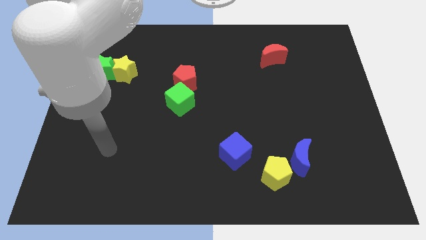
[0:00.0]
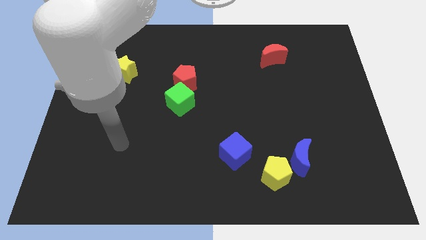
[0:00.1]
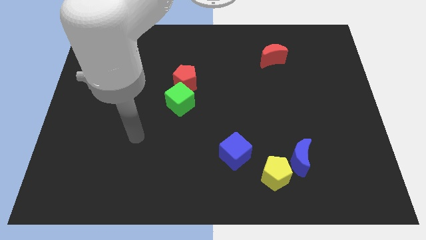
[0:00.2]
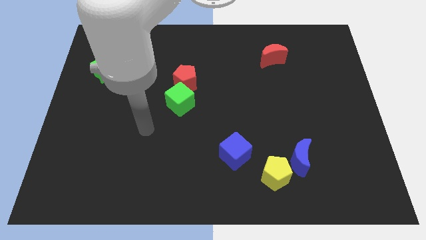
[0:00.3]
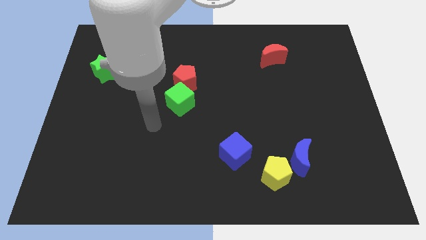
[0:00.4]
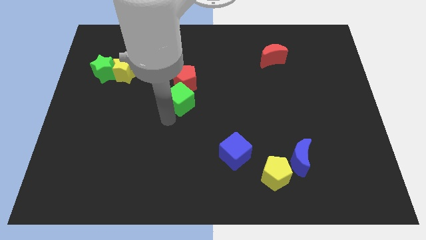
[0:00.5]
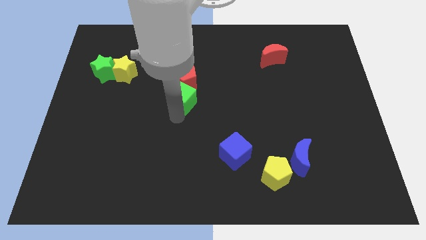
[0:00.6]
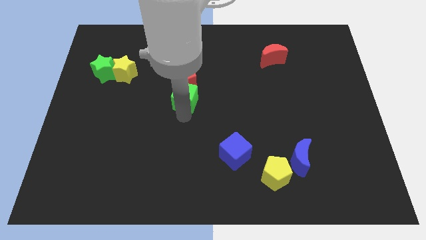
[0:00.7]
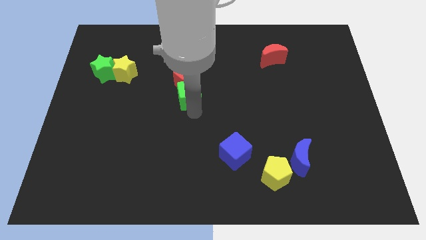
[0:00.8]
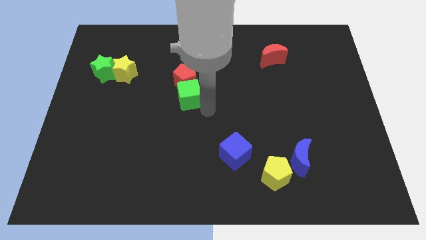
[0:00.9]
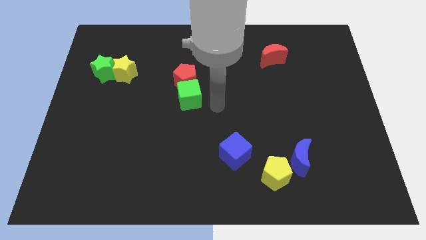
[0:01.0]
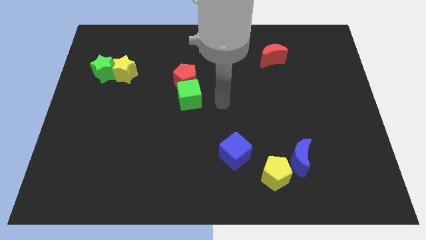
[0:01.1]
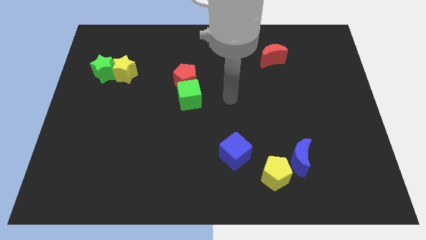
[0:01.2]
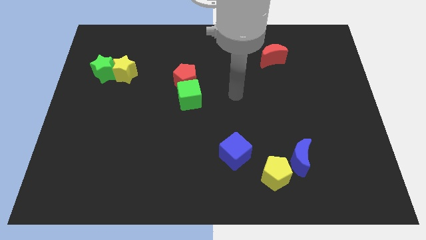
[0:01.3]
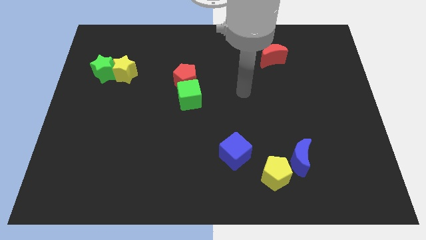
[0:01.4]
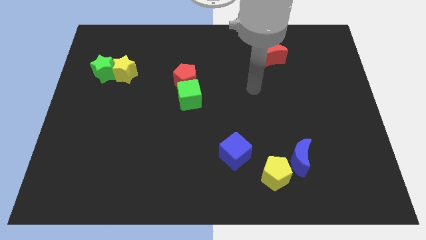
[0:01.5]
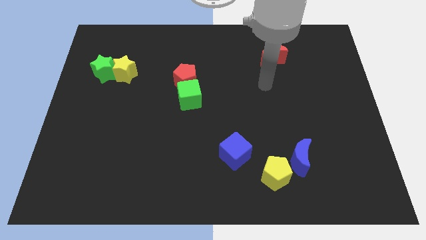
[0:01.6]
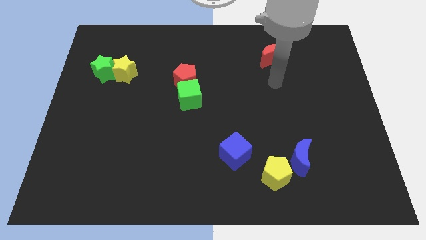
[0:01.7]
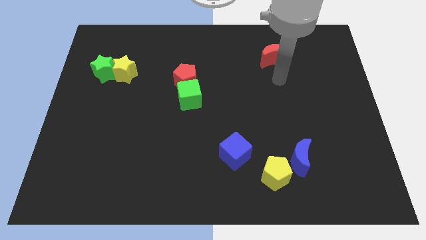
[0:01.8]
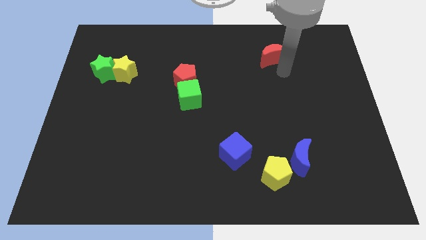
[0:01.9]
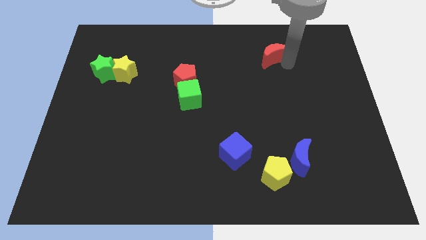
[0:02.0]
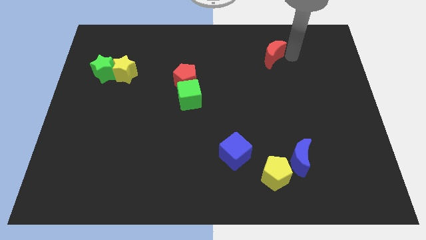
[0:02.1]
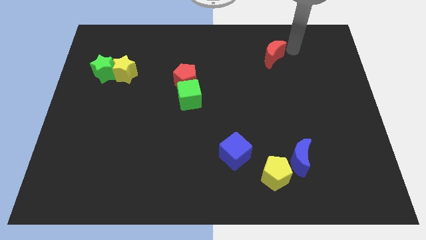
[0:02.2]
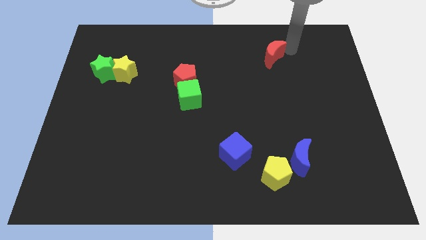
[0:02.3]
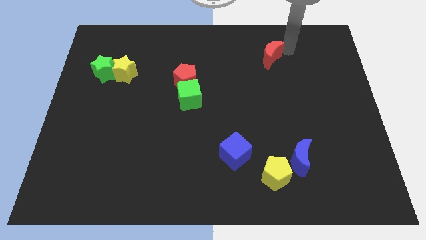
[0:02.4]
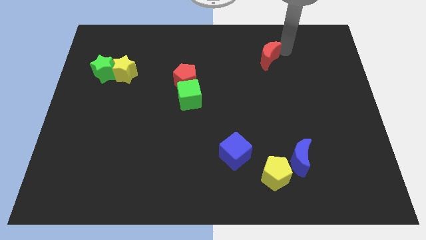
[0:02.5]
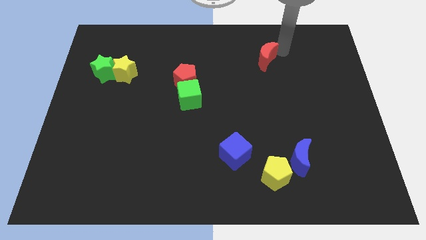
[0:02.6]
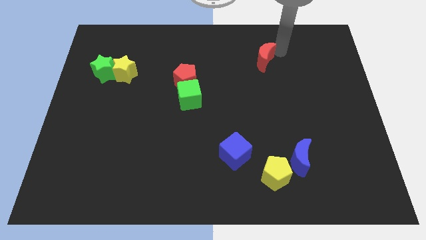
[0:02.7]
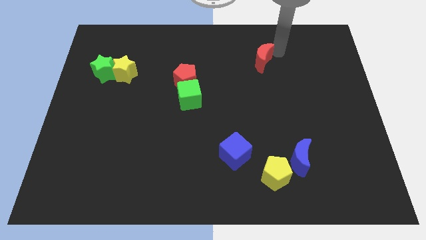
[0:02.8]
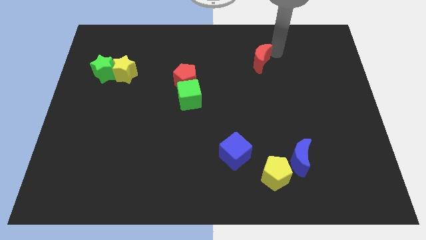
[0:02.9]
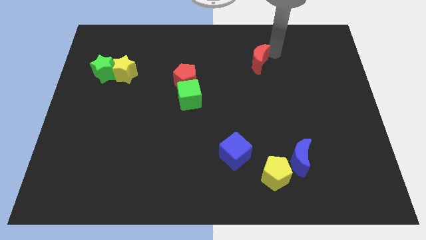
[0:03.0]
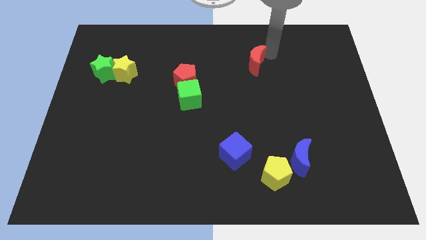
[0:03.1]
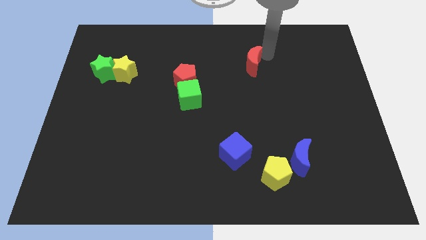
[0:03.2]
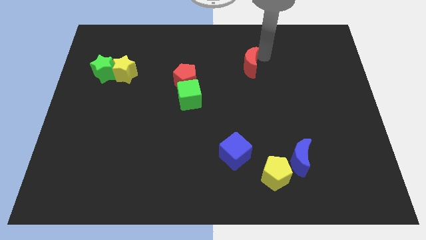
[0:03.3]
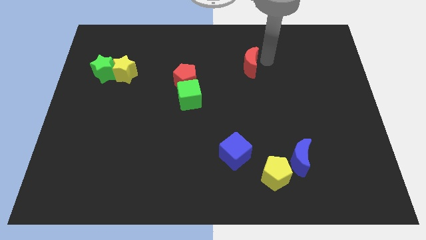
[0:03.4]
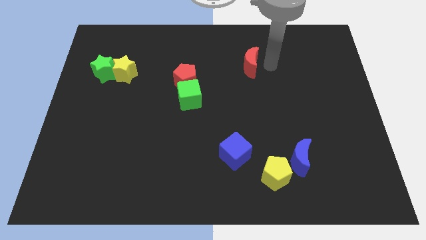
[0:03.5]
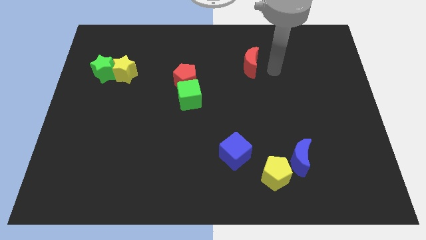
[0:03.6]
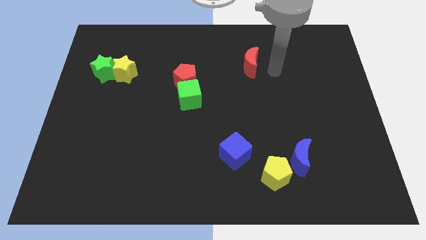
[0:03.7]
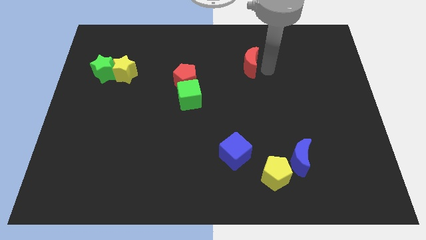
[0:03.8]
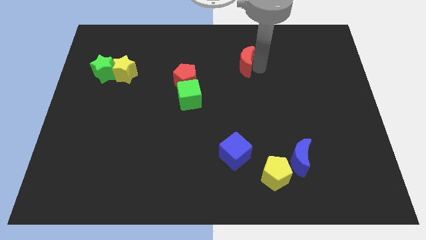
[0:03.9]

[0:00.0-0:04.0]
move the red moon somewhat left

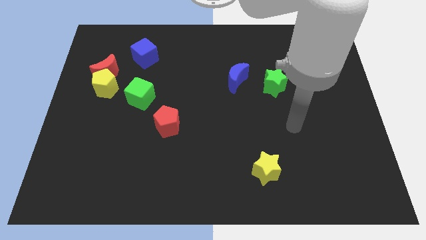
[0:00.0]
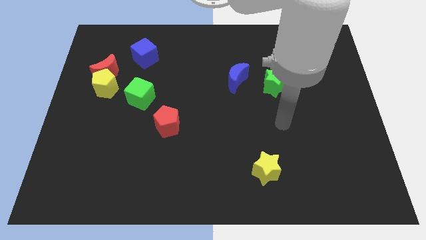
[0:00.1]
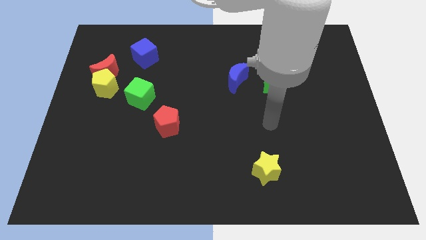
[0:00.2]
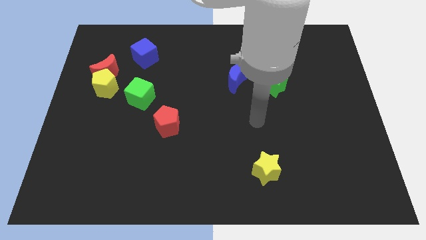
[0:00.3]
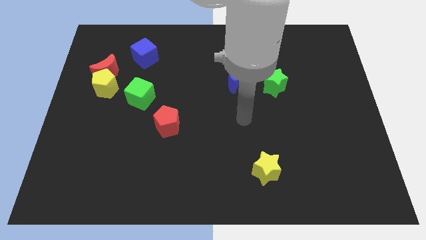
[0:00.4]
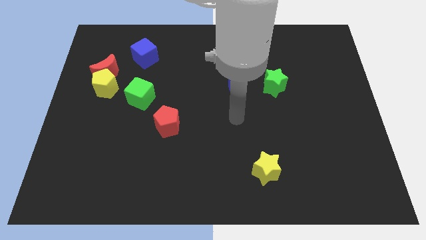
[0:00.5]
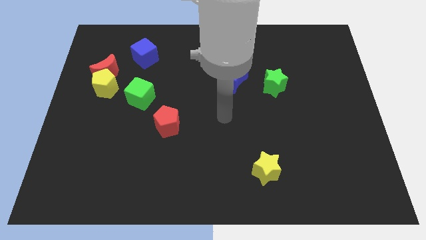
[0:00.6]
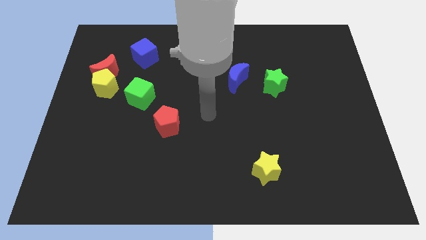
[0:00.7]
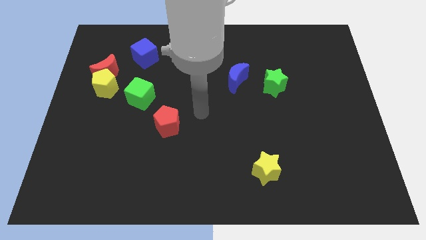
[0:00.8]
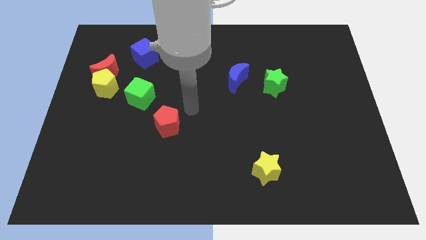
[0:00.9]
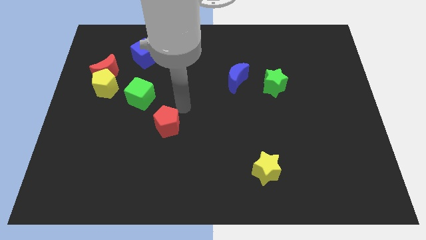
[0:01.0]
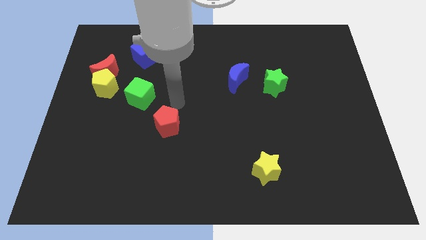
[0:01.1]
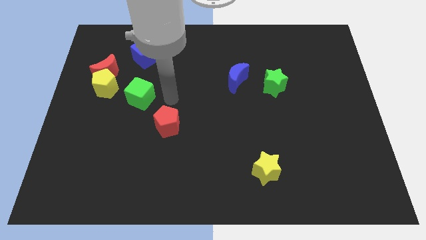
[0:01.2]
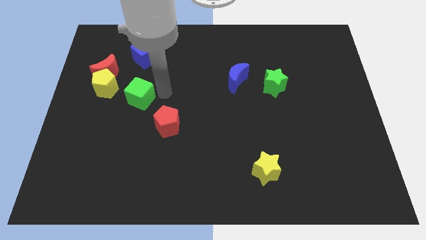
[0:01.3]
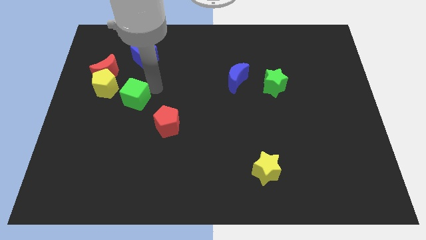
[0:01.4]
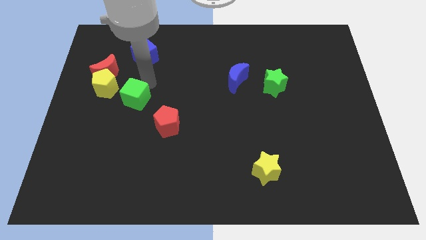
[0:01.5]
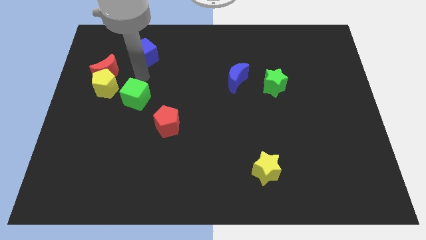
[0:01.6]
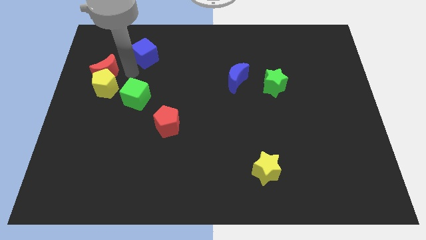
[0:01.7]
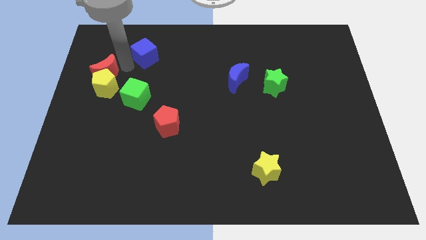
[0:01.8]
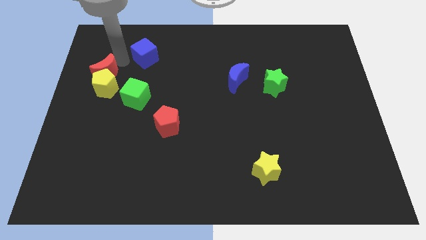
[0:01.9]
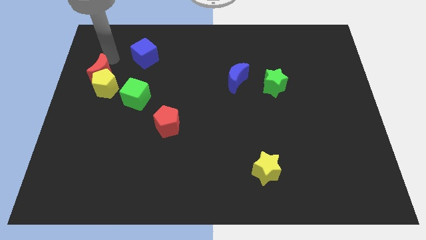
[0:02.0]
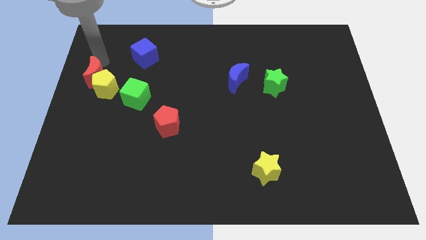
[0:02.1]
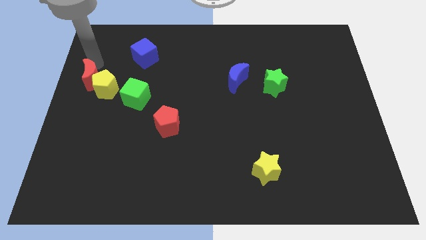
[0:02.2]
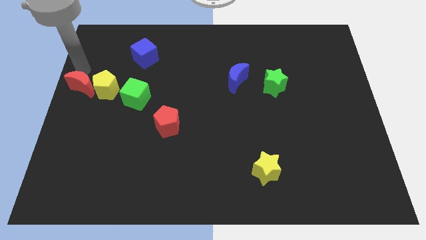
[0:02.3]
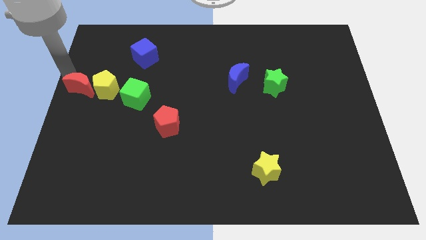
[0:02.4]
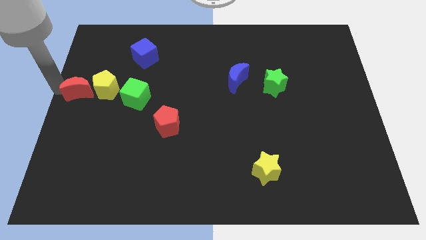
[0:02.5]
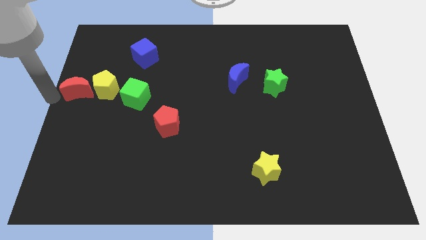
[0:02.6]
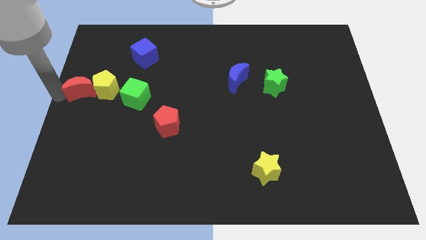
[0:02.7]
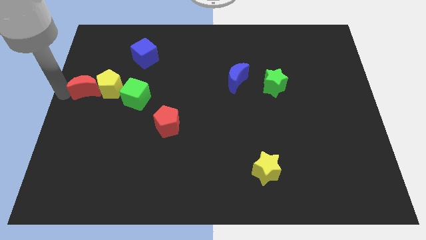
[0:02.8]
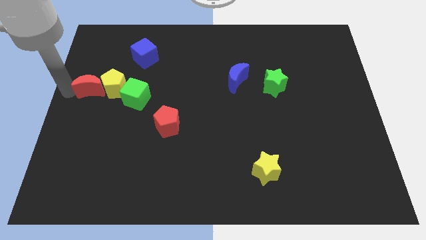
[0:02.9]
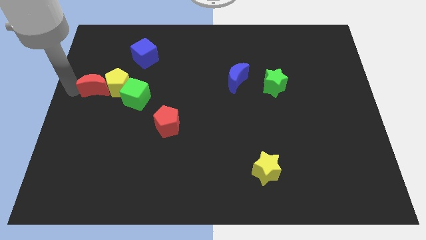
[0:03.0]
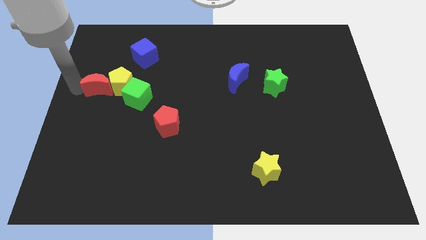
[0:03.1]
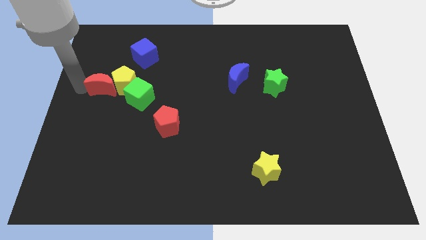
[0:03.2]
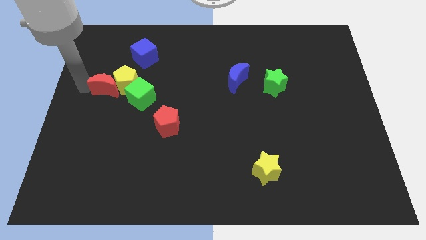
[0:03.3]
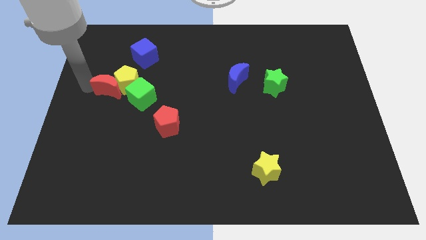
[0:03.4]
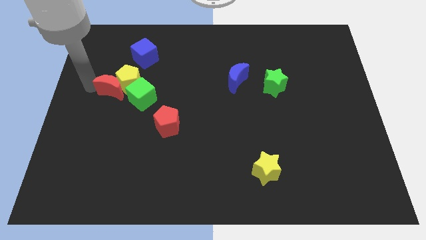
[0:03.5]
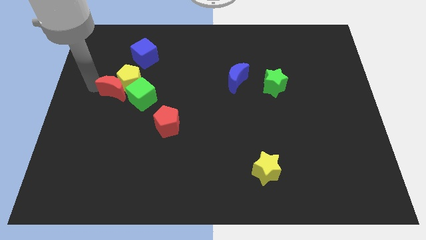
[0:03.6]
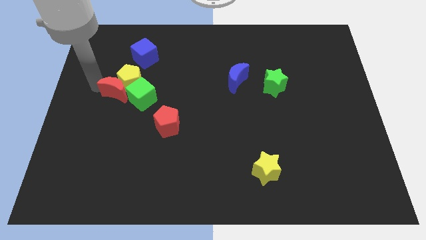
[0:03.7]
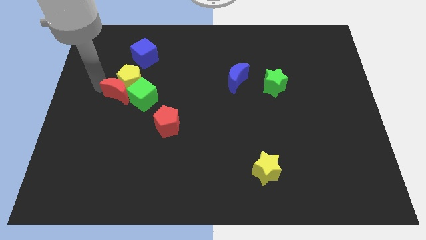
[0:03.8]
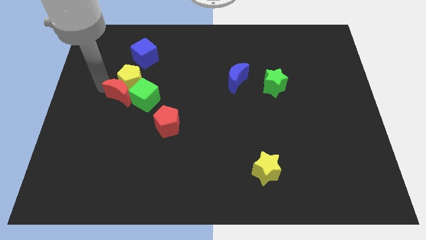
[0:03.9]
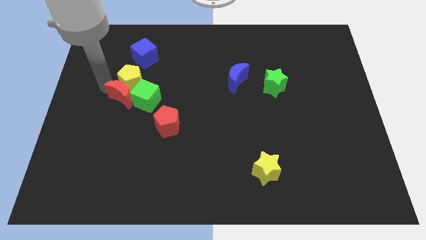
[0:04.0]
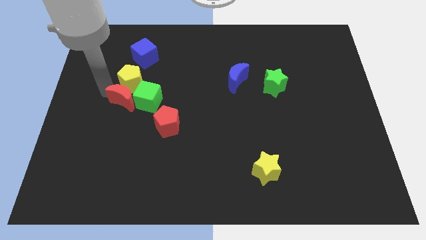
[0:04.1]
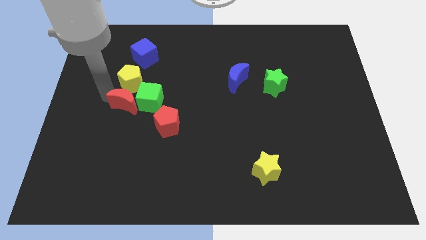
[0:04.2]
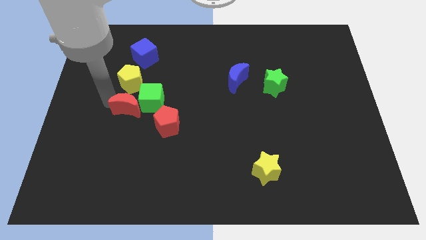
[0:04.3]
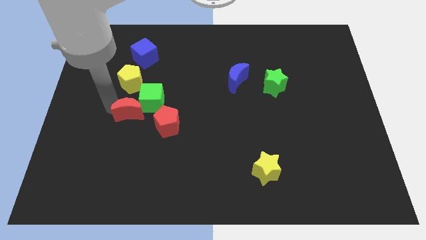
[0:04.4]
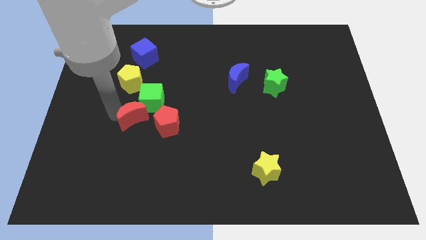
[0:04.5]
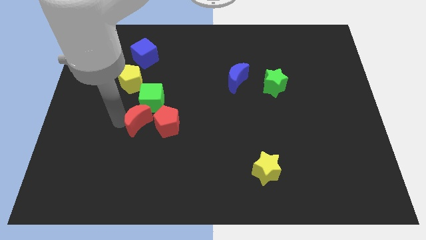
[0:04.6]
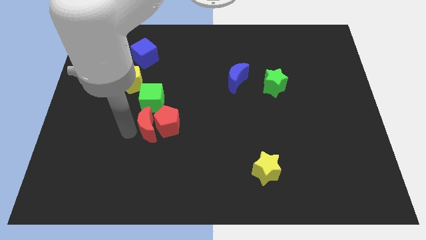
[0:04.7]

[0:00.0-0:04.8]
move the red moon diagonally downwards and to the right
